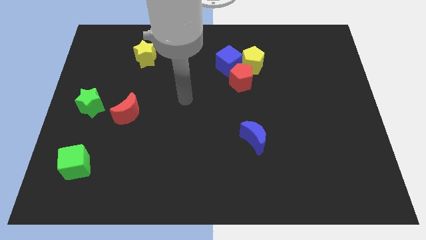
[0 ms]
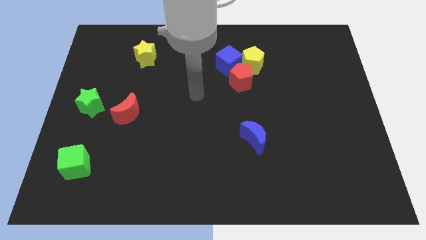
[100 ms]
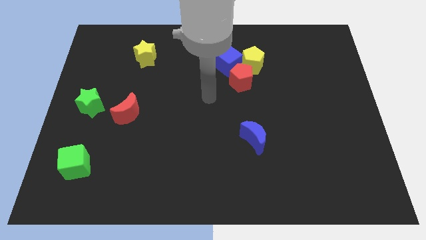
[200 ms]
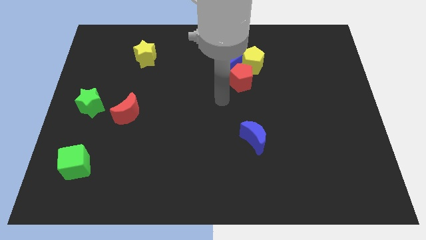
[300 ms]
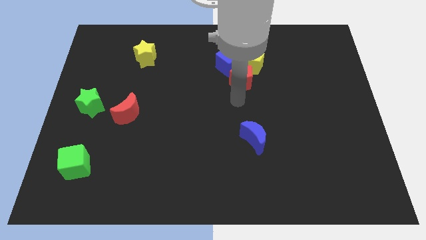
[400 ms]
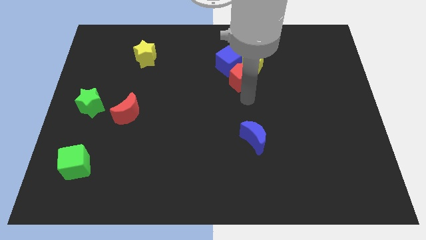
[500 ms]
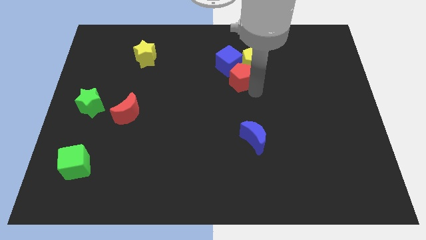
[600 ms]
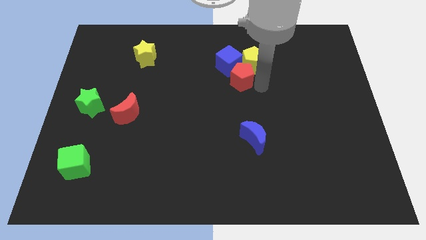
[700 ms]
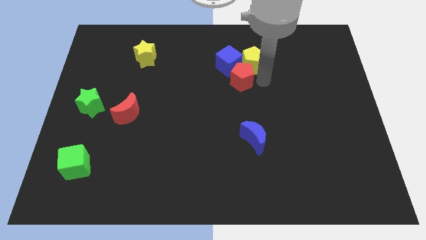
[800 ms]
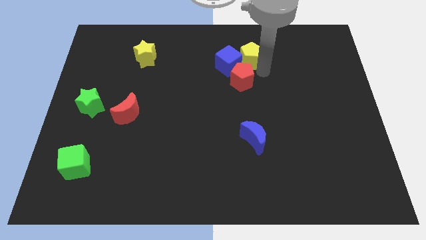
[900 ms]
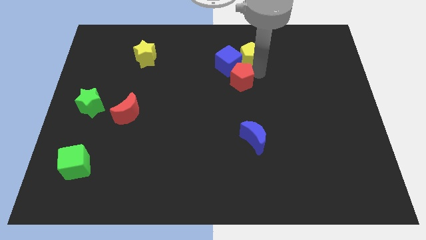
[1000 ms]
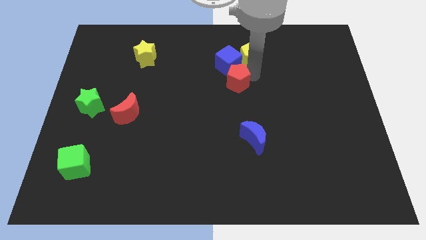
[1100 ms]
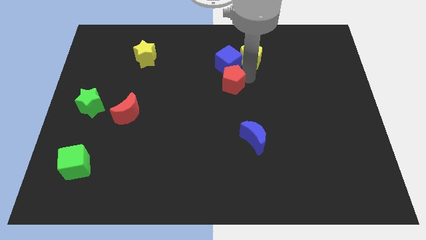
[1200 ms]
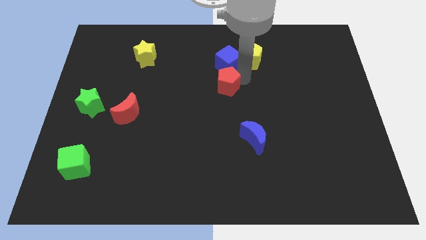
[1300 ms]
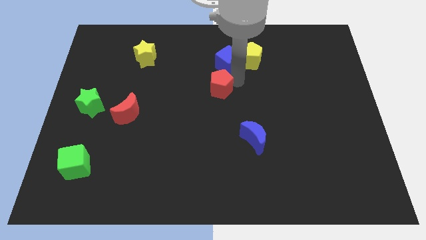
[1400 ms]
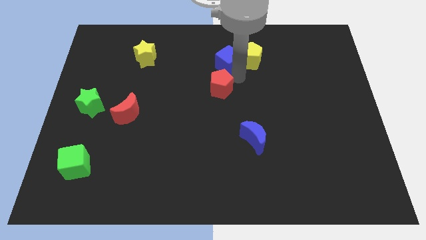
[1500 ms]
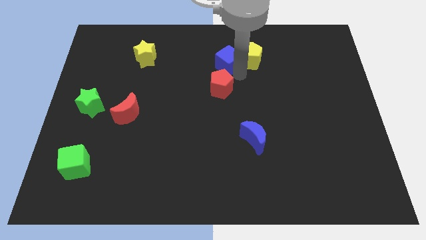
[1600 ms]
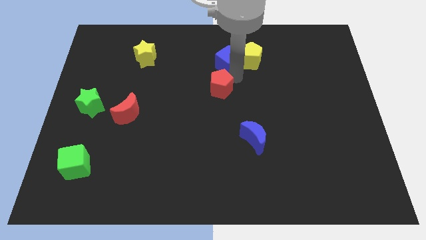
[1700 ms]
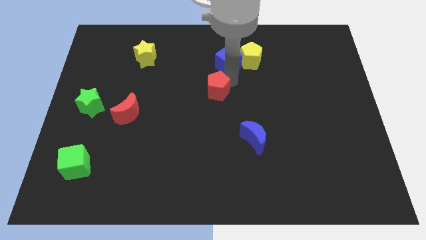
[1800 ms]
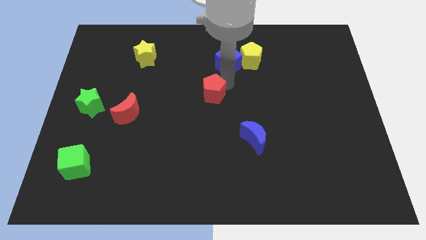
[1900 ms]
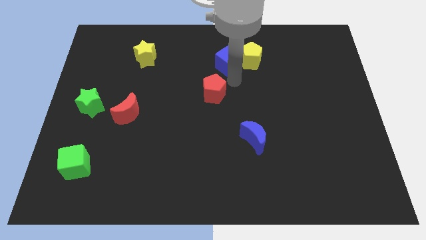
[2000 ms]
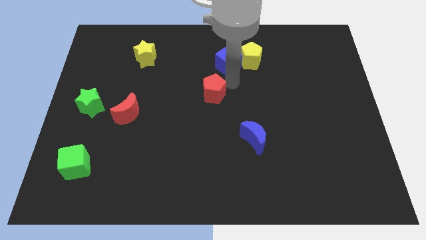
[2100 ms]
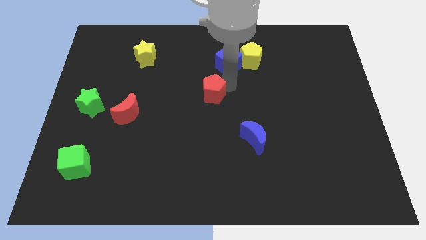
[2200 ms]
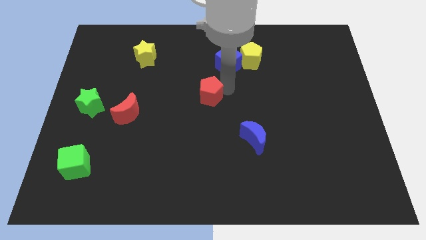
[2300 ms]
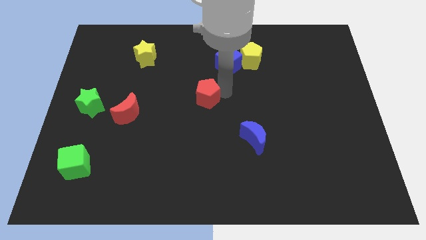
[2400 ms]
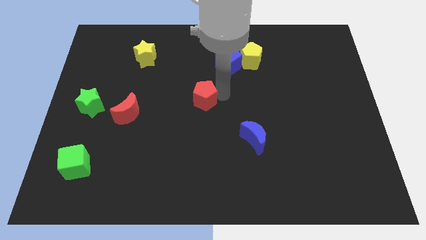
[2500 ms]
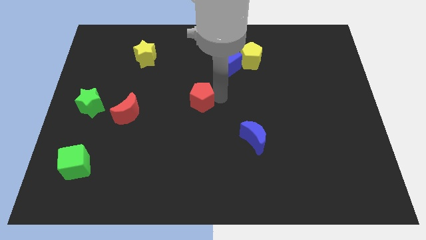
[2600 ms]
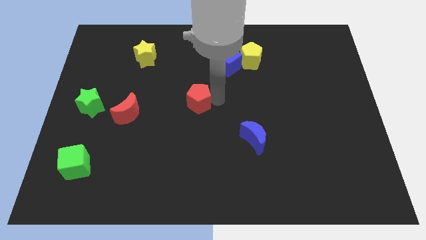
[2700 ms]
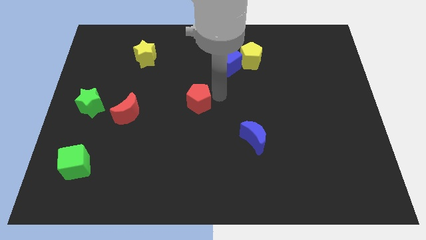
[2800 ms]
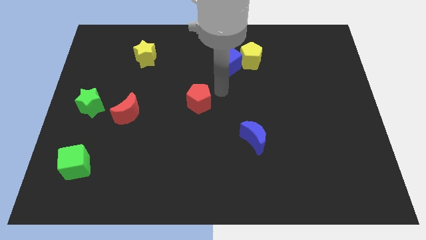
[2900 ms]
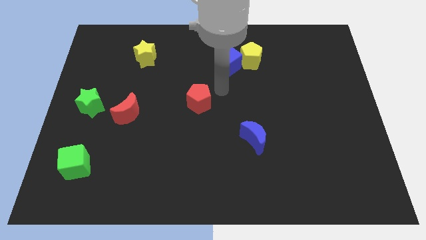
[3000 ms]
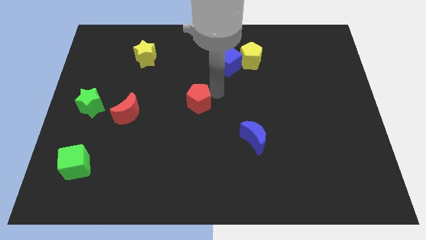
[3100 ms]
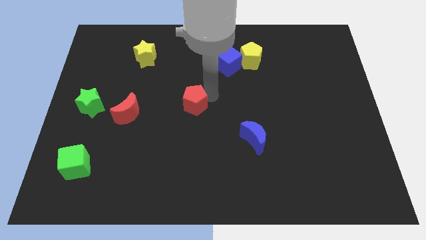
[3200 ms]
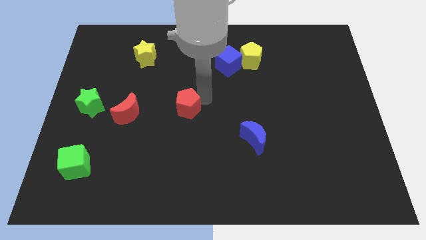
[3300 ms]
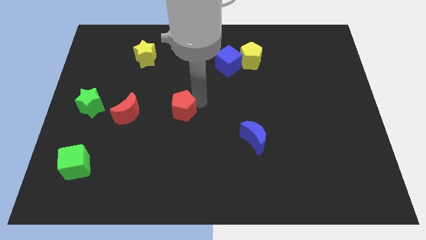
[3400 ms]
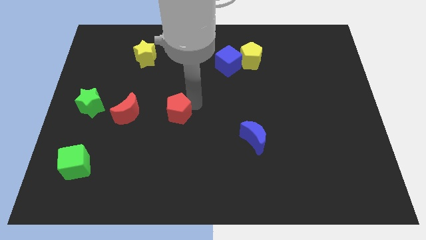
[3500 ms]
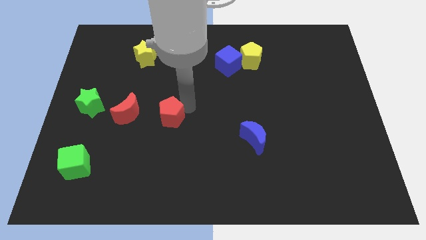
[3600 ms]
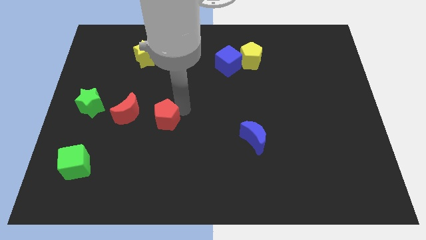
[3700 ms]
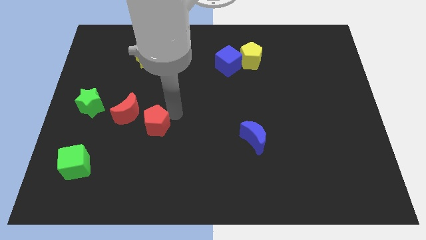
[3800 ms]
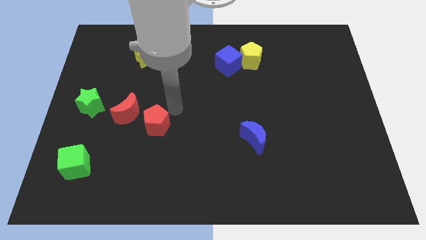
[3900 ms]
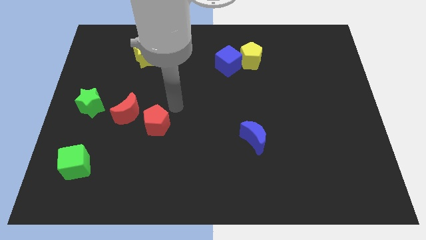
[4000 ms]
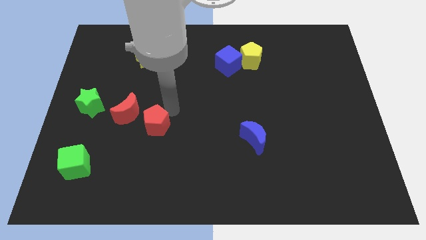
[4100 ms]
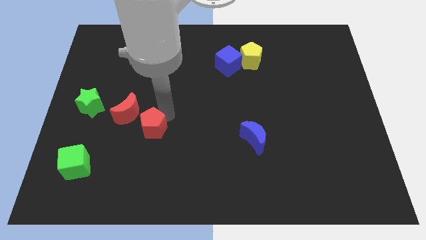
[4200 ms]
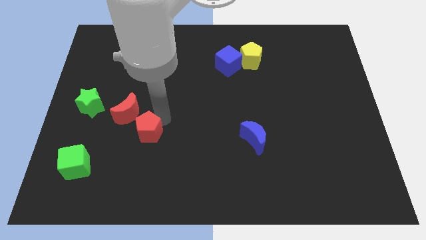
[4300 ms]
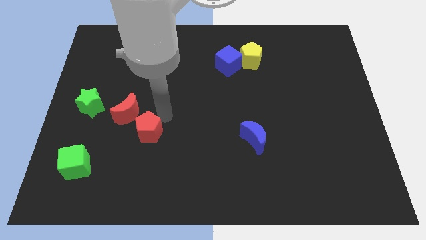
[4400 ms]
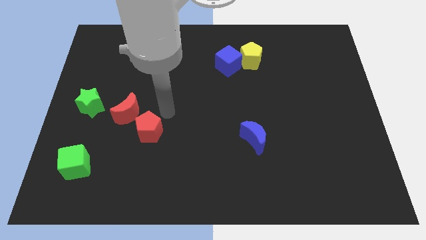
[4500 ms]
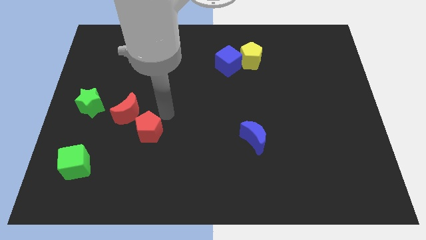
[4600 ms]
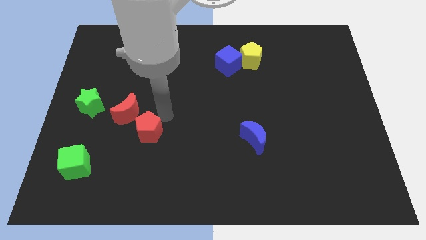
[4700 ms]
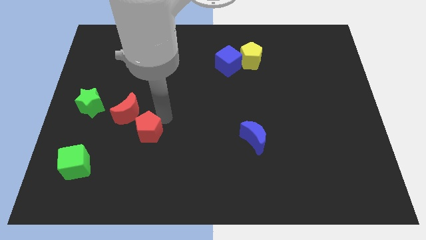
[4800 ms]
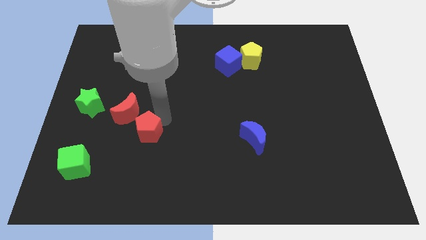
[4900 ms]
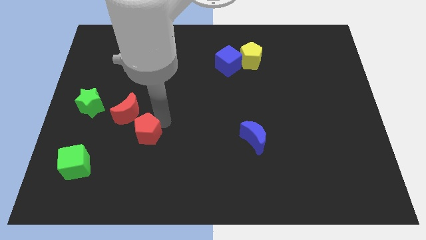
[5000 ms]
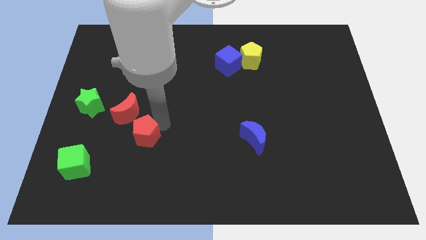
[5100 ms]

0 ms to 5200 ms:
move the red pentagon to the bottom side of the red moon
